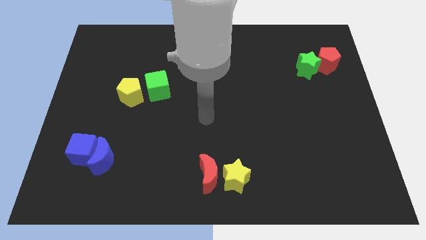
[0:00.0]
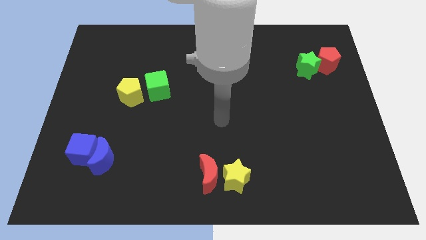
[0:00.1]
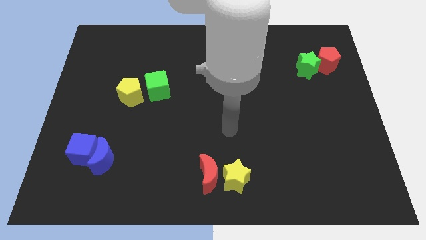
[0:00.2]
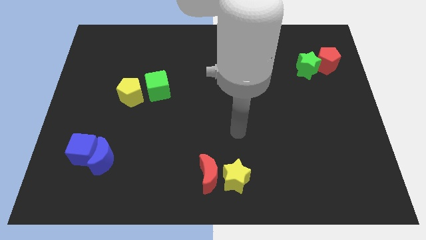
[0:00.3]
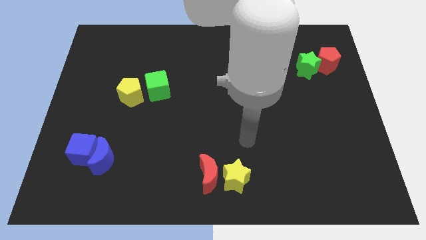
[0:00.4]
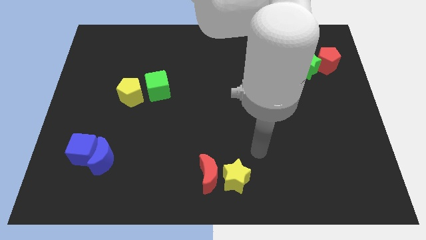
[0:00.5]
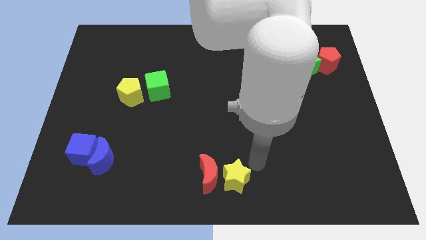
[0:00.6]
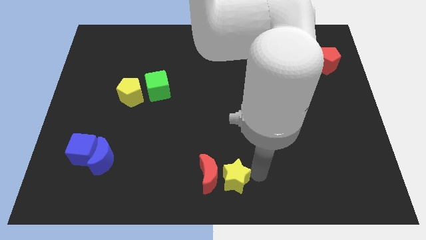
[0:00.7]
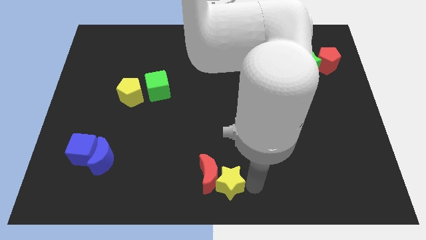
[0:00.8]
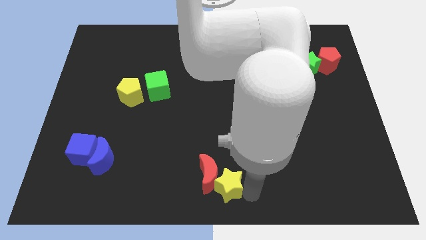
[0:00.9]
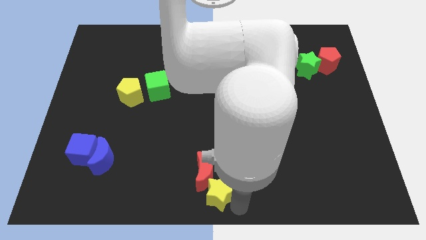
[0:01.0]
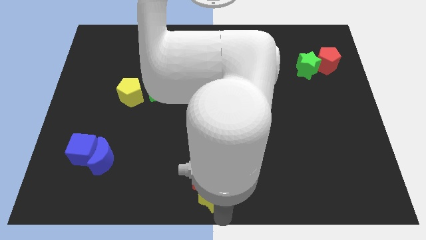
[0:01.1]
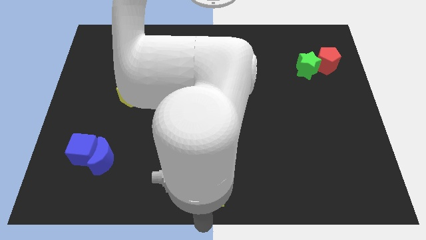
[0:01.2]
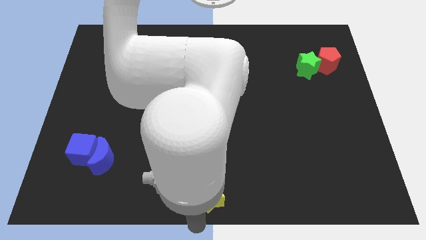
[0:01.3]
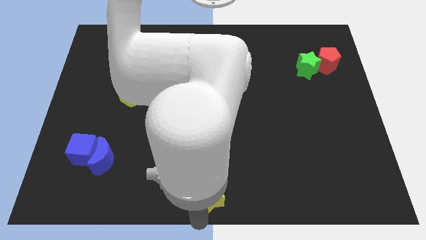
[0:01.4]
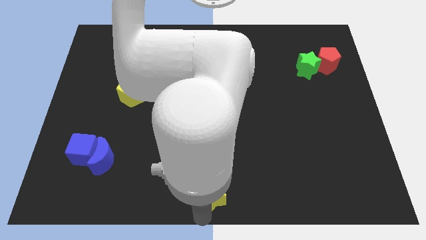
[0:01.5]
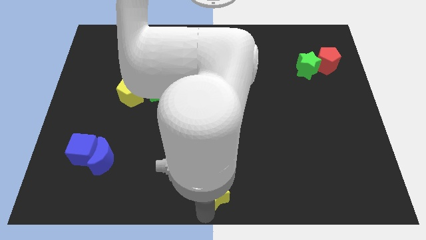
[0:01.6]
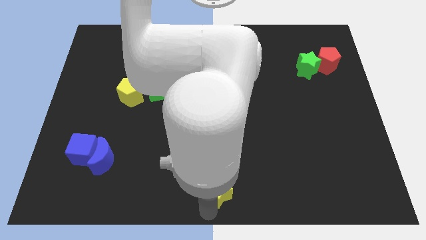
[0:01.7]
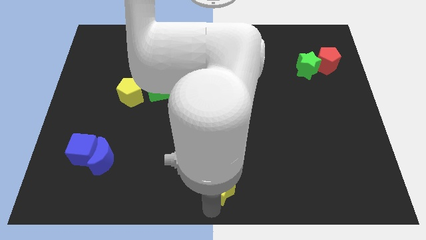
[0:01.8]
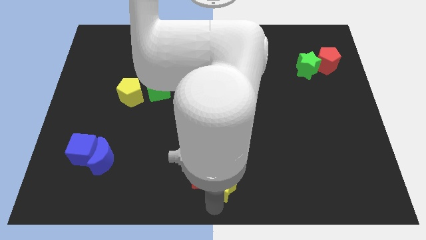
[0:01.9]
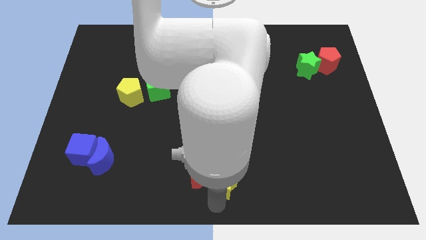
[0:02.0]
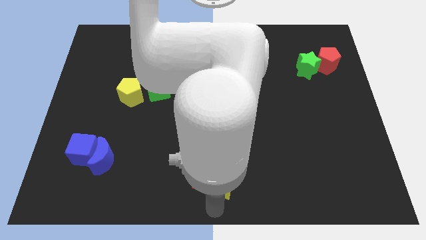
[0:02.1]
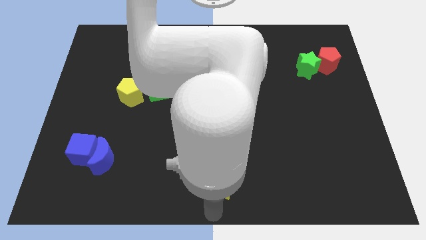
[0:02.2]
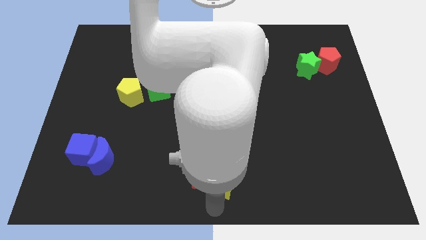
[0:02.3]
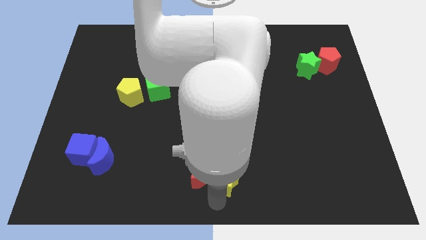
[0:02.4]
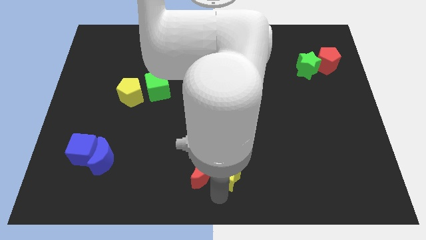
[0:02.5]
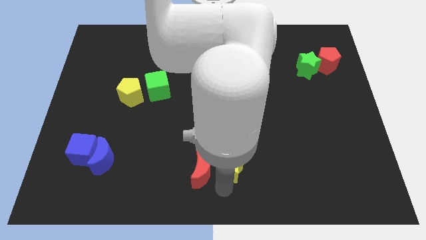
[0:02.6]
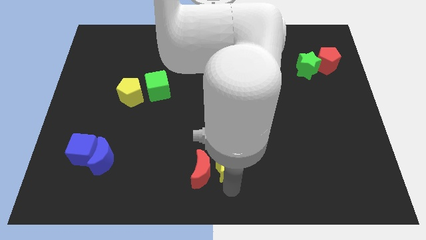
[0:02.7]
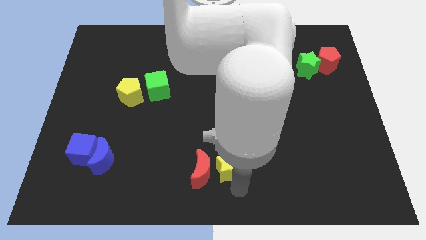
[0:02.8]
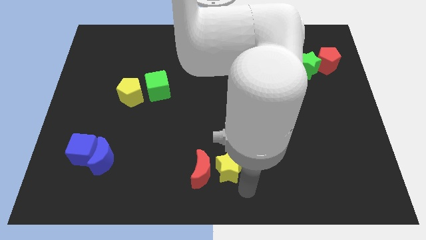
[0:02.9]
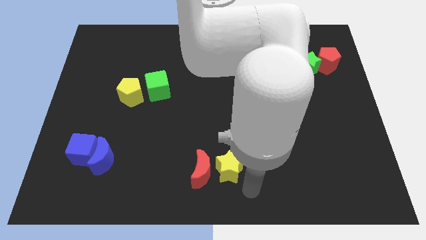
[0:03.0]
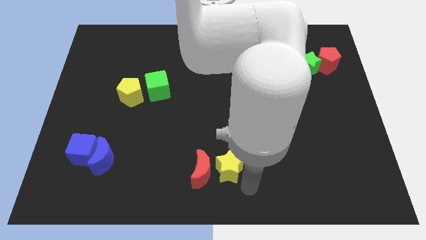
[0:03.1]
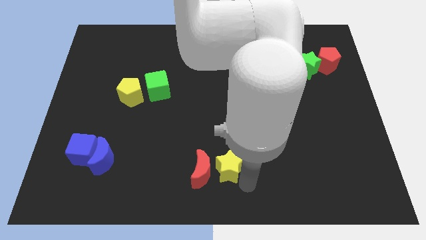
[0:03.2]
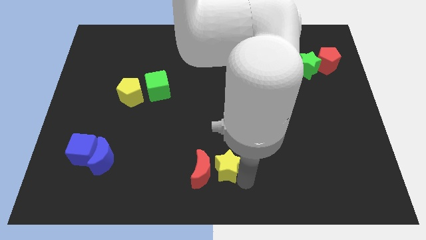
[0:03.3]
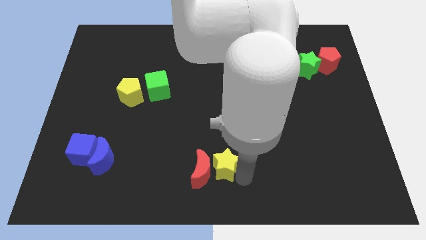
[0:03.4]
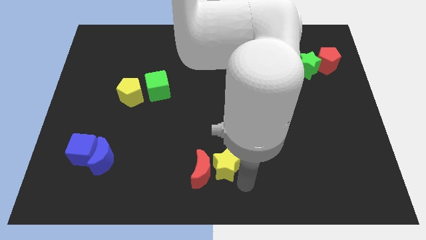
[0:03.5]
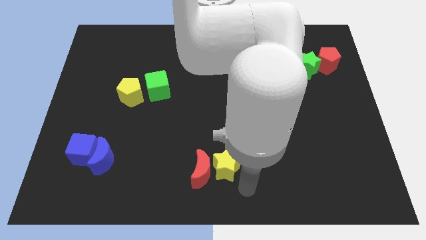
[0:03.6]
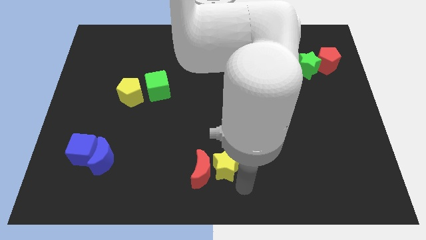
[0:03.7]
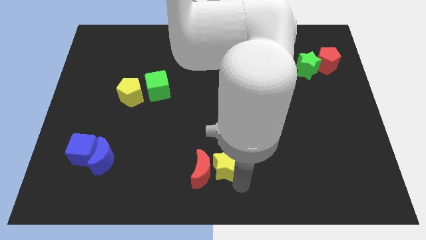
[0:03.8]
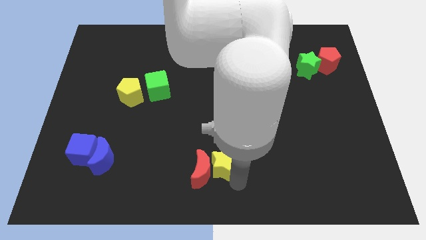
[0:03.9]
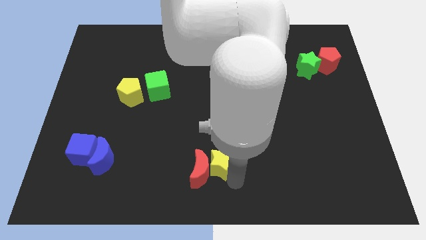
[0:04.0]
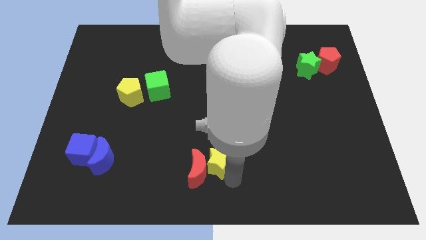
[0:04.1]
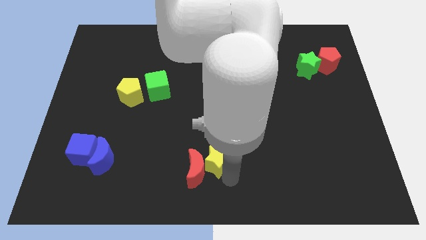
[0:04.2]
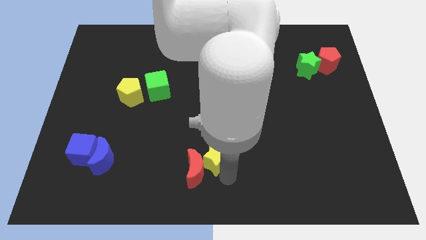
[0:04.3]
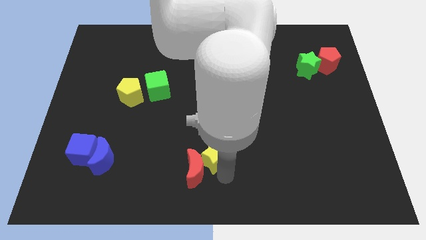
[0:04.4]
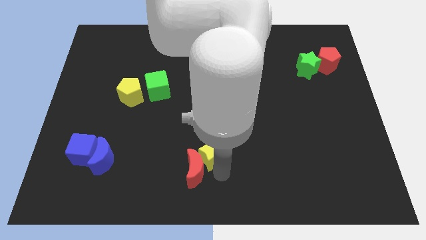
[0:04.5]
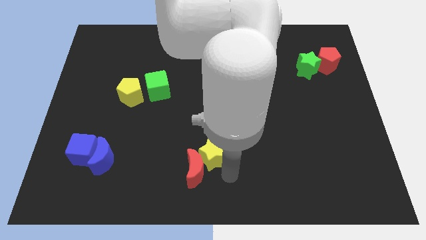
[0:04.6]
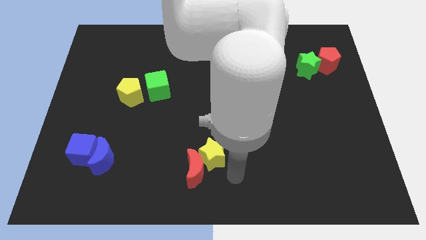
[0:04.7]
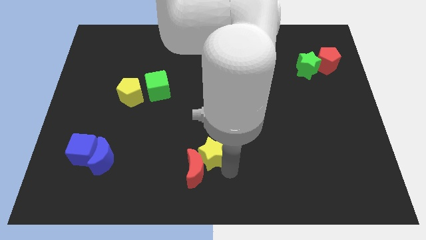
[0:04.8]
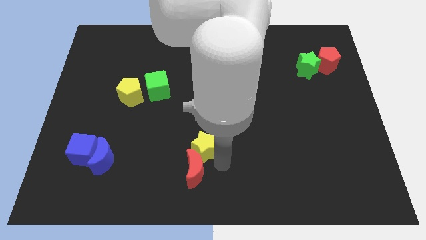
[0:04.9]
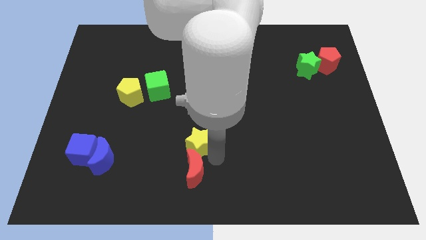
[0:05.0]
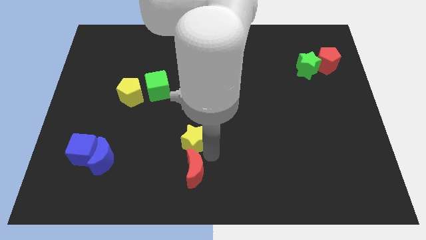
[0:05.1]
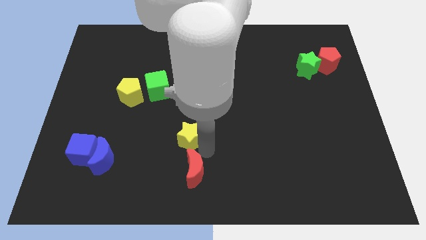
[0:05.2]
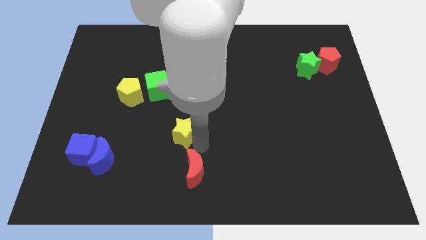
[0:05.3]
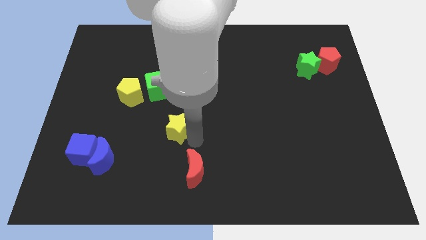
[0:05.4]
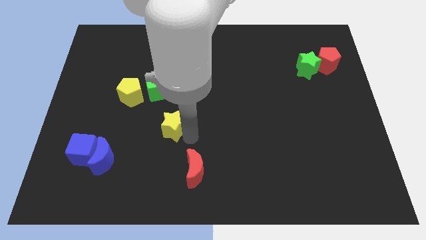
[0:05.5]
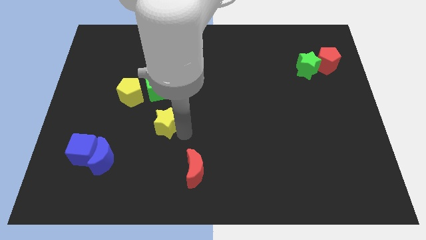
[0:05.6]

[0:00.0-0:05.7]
push the yellow star diagonally down and to the right of the yellow pentagon
